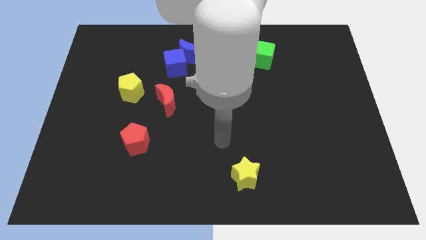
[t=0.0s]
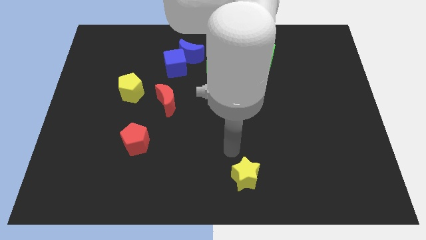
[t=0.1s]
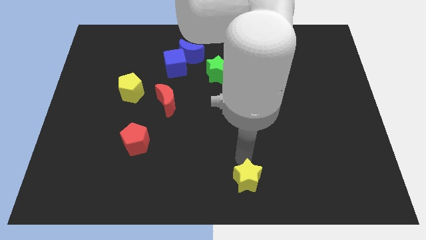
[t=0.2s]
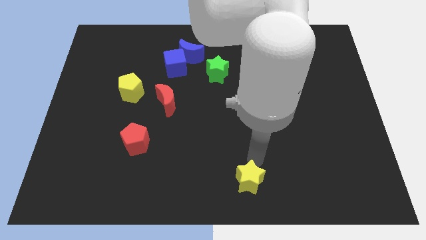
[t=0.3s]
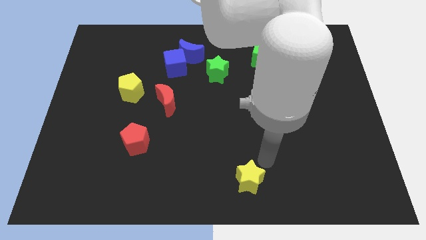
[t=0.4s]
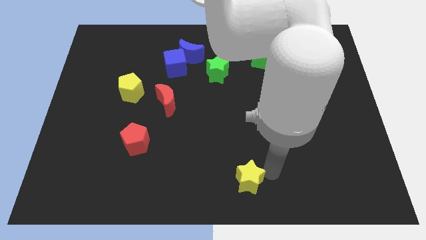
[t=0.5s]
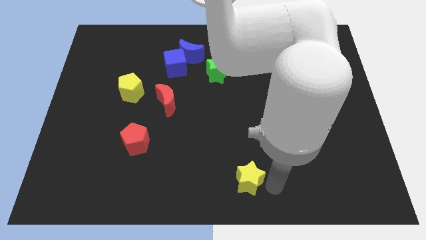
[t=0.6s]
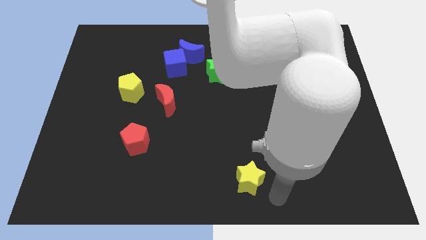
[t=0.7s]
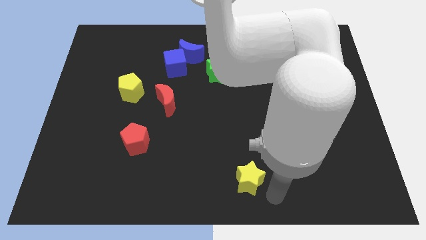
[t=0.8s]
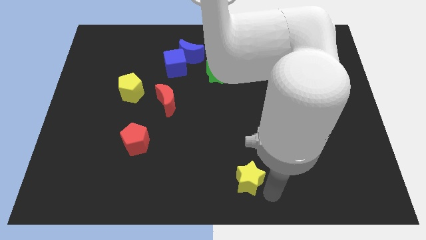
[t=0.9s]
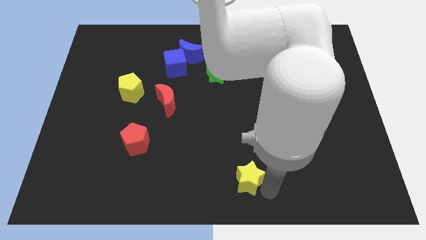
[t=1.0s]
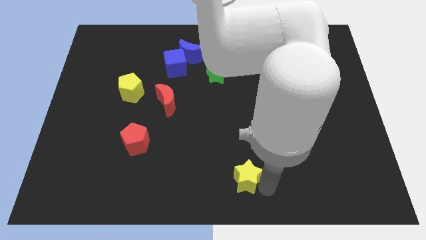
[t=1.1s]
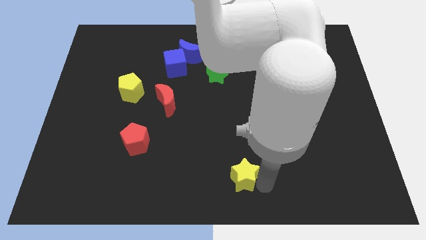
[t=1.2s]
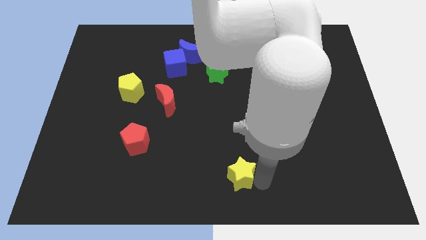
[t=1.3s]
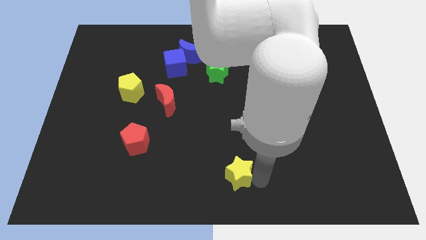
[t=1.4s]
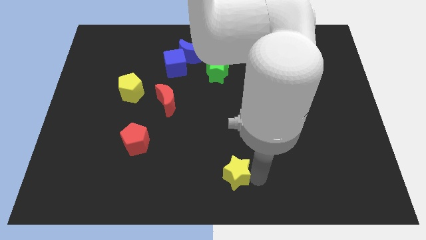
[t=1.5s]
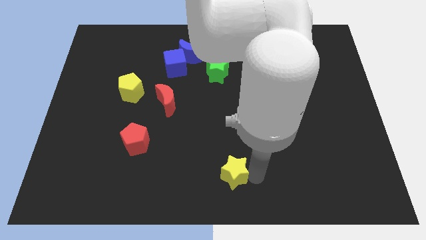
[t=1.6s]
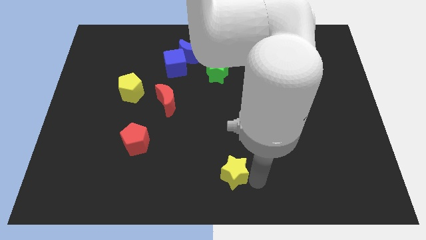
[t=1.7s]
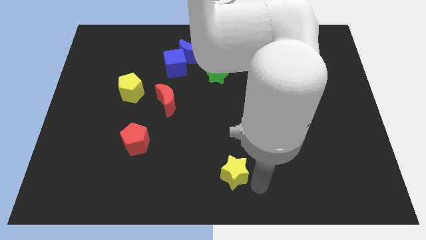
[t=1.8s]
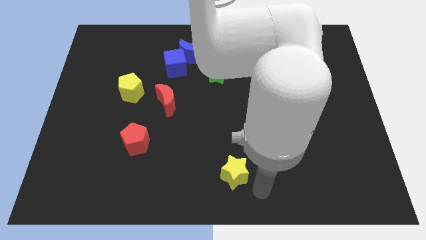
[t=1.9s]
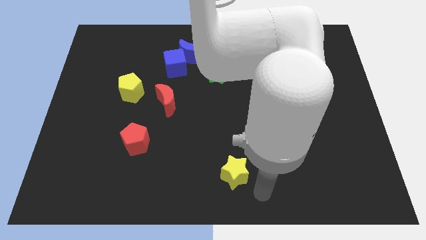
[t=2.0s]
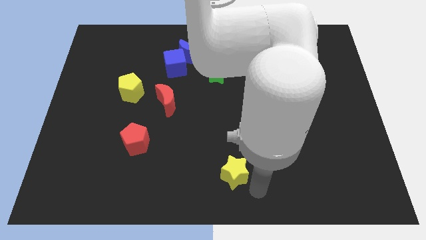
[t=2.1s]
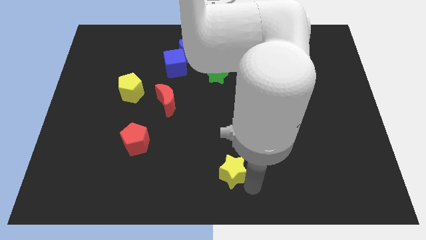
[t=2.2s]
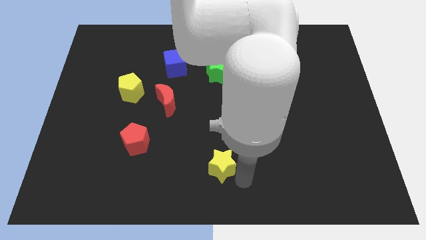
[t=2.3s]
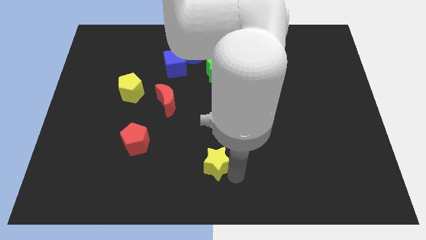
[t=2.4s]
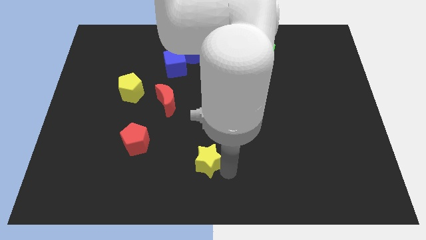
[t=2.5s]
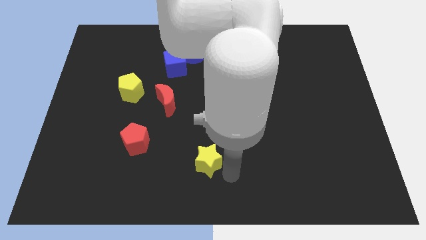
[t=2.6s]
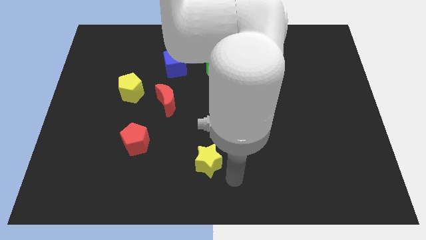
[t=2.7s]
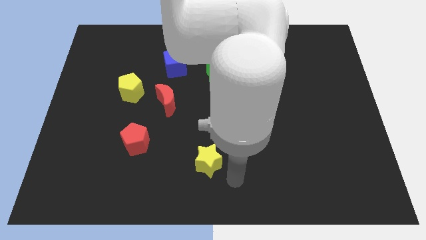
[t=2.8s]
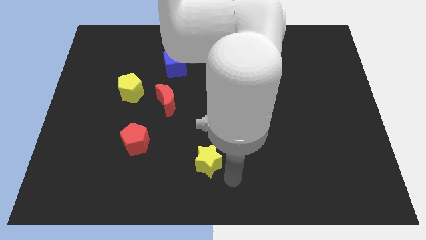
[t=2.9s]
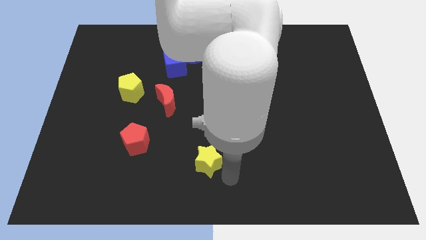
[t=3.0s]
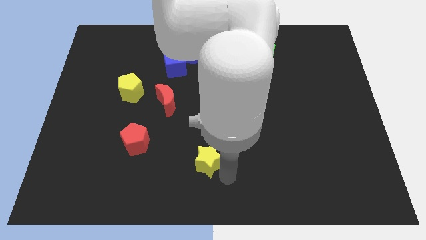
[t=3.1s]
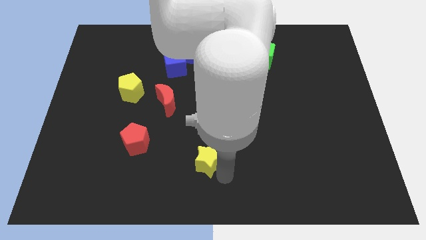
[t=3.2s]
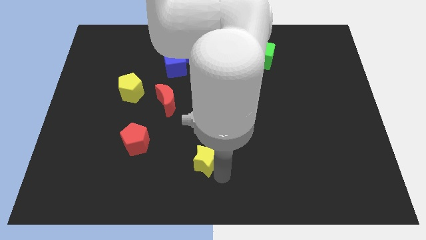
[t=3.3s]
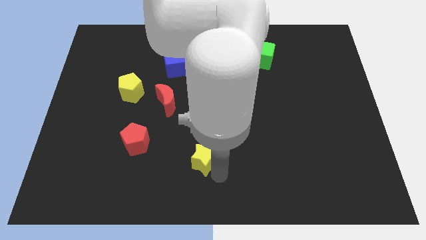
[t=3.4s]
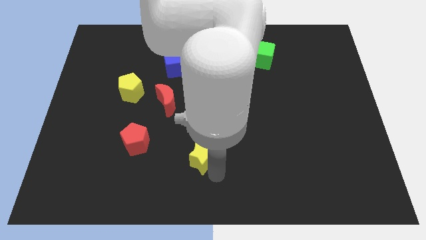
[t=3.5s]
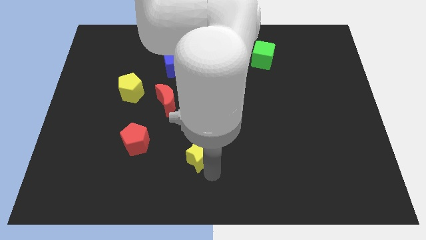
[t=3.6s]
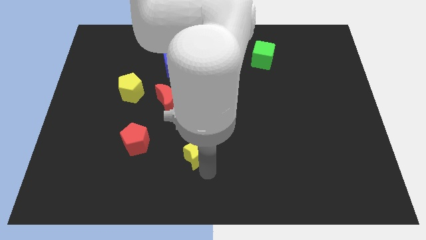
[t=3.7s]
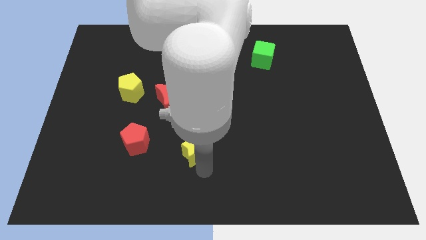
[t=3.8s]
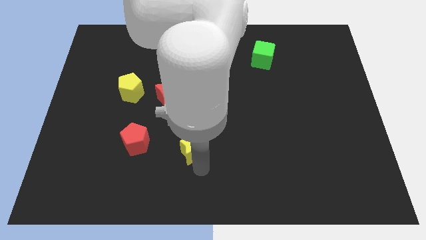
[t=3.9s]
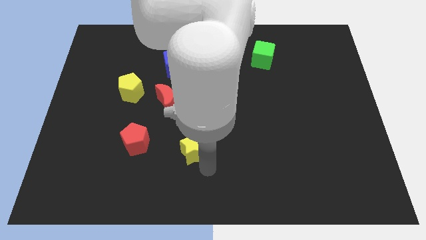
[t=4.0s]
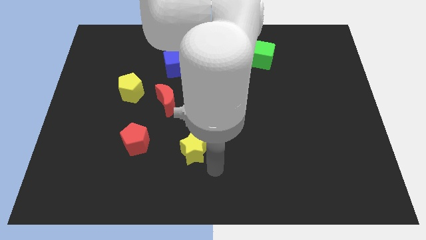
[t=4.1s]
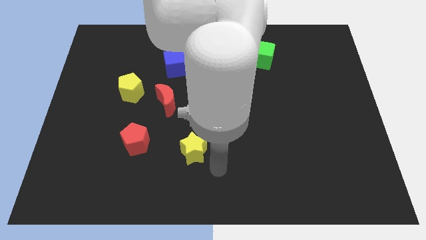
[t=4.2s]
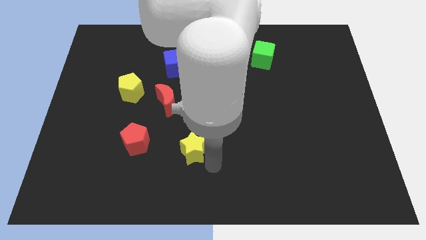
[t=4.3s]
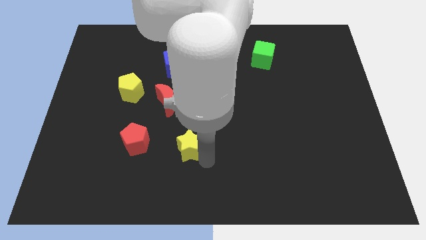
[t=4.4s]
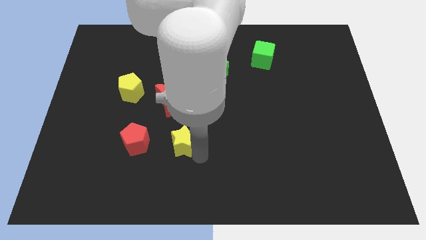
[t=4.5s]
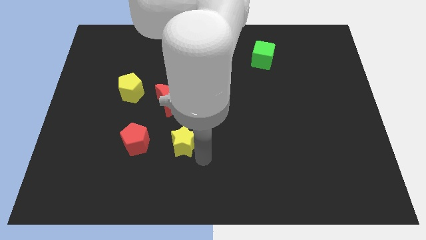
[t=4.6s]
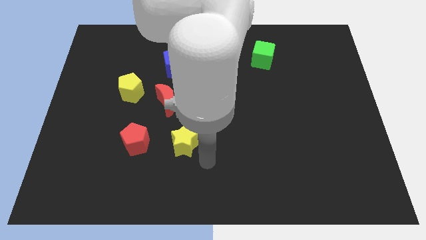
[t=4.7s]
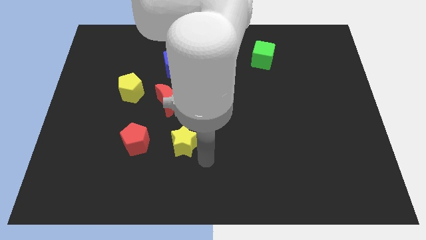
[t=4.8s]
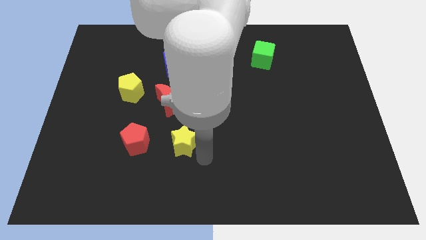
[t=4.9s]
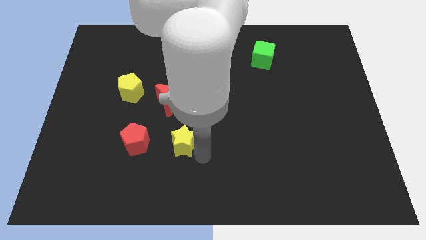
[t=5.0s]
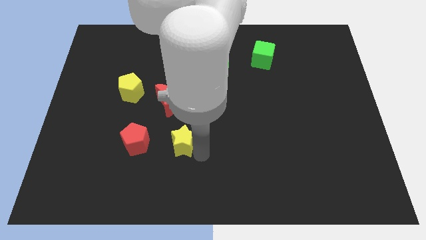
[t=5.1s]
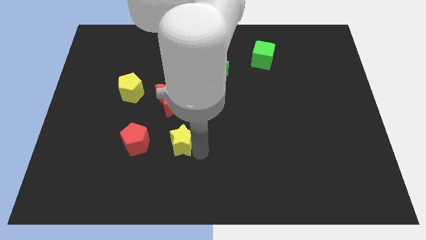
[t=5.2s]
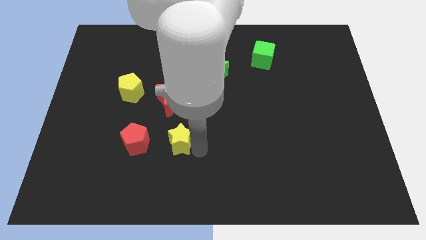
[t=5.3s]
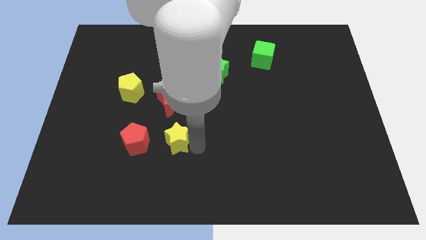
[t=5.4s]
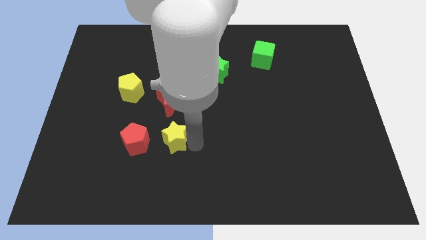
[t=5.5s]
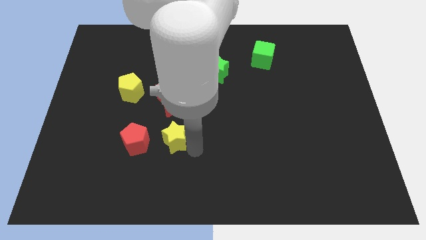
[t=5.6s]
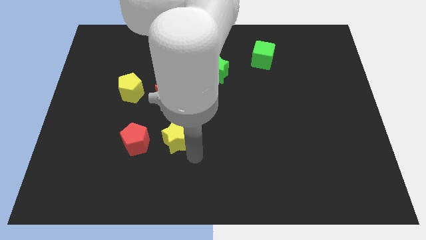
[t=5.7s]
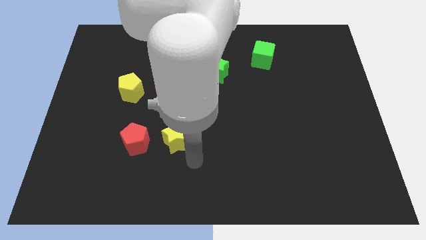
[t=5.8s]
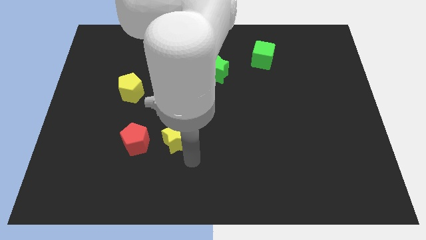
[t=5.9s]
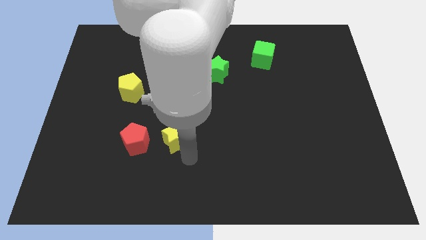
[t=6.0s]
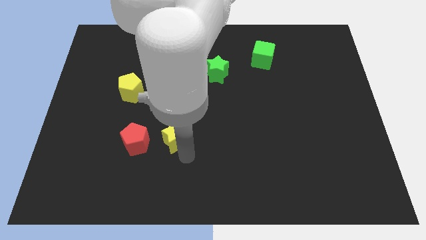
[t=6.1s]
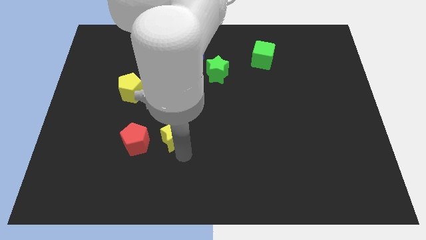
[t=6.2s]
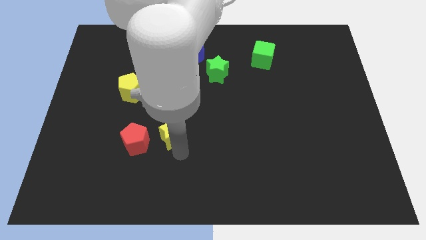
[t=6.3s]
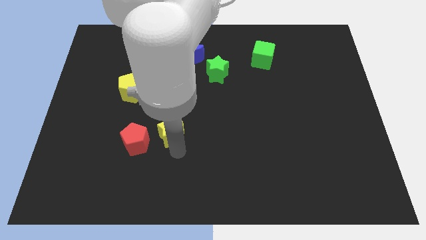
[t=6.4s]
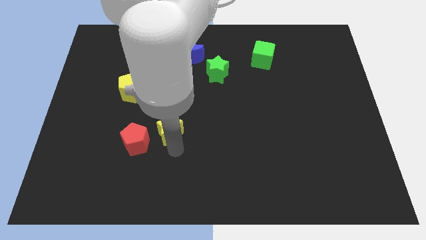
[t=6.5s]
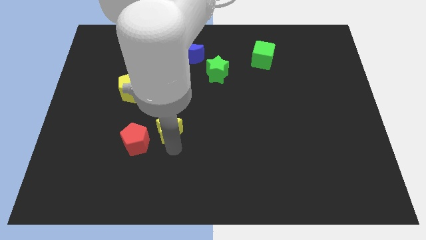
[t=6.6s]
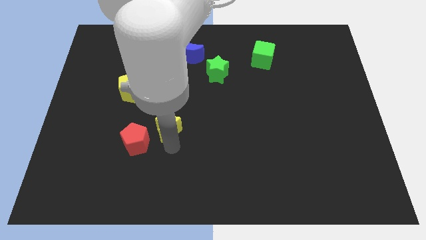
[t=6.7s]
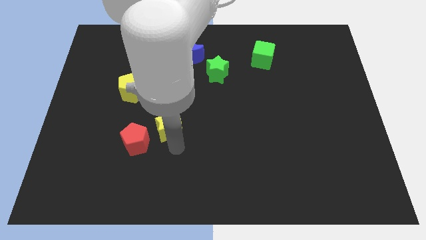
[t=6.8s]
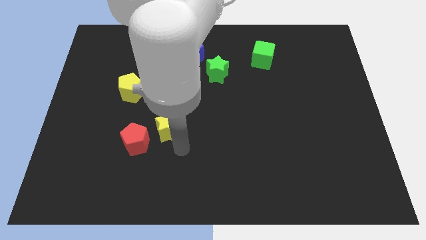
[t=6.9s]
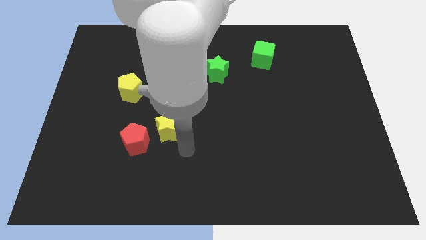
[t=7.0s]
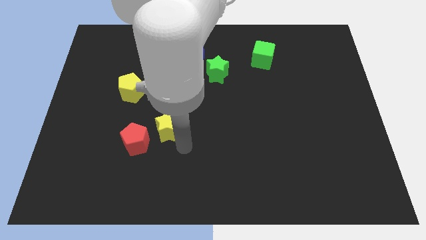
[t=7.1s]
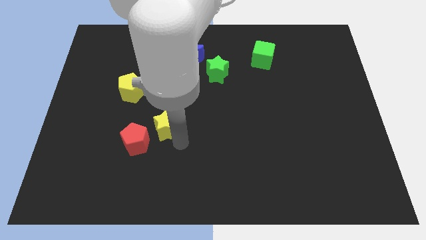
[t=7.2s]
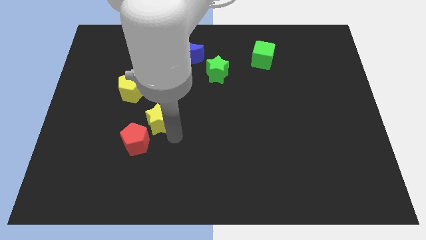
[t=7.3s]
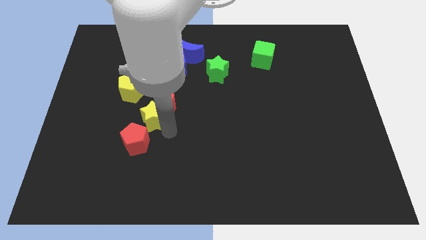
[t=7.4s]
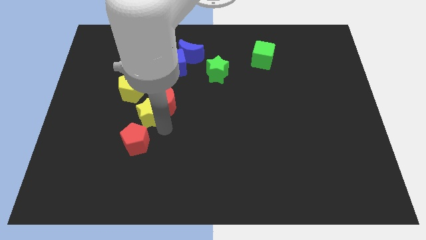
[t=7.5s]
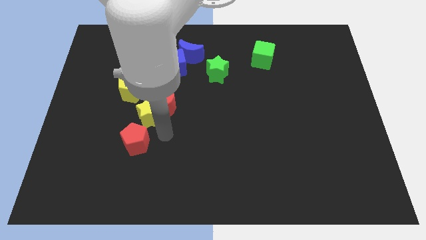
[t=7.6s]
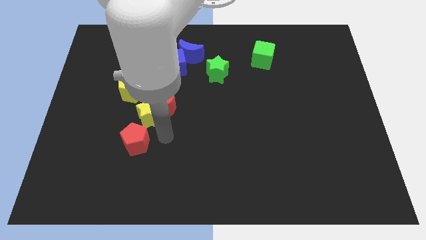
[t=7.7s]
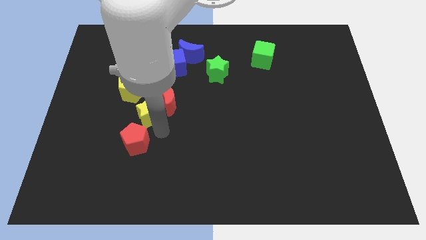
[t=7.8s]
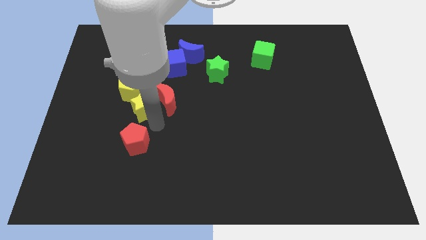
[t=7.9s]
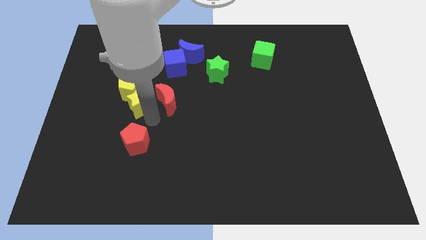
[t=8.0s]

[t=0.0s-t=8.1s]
push the yellow star next to the yellow pentagon
